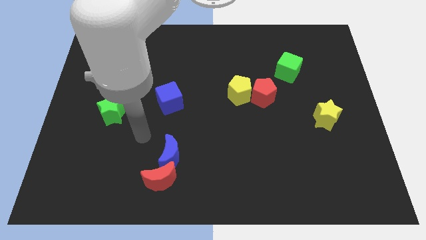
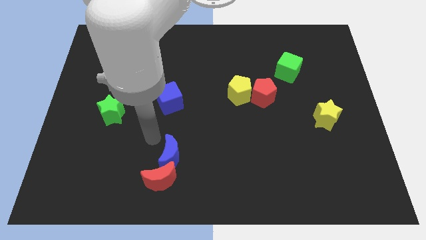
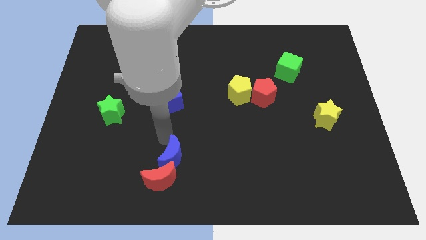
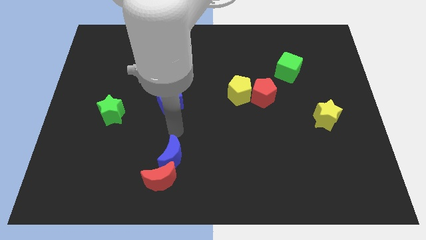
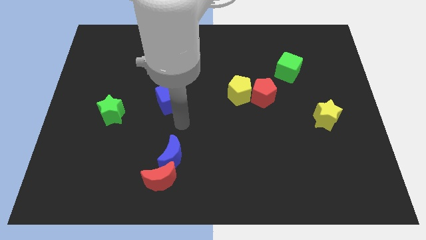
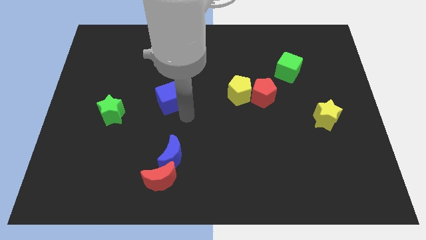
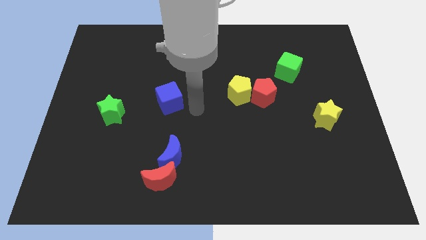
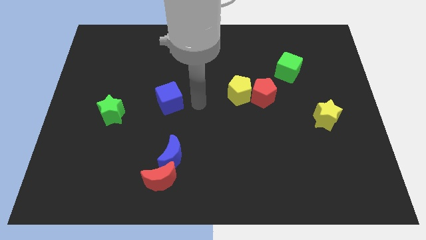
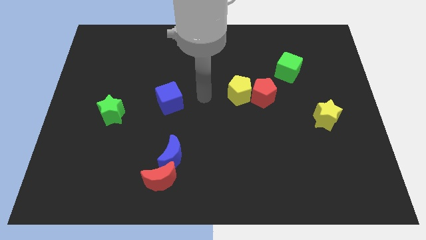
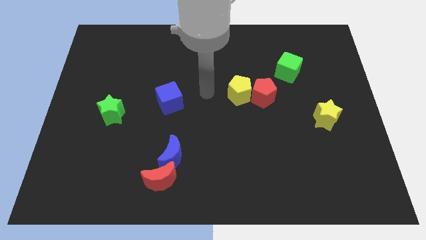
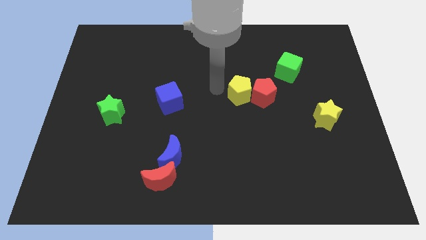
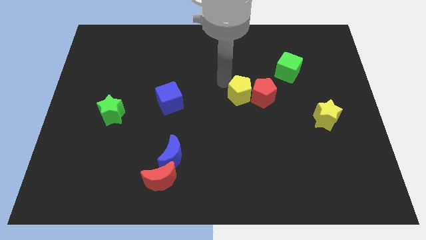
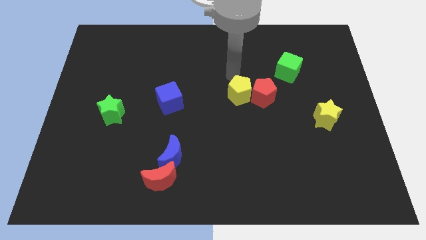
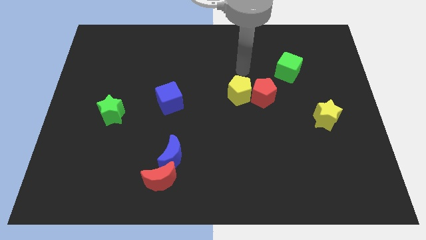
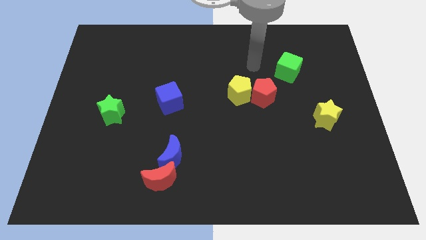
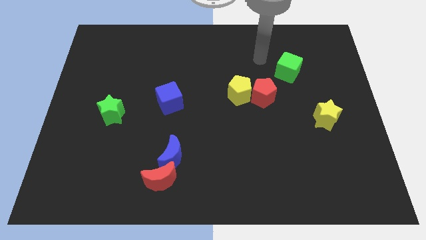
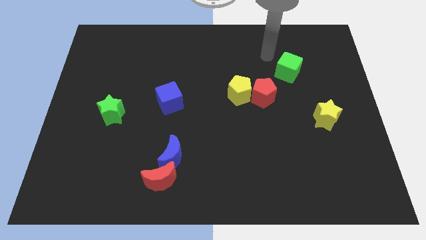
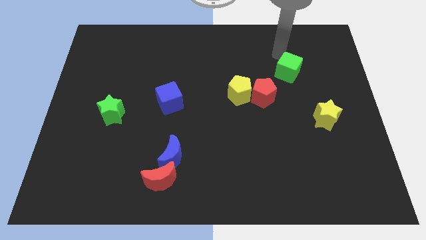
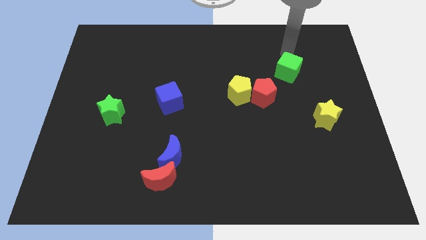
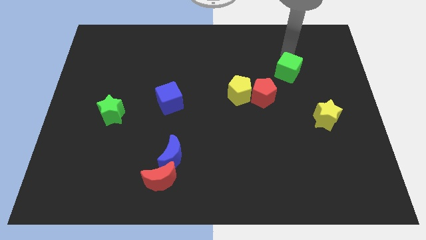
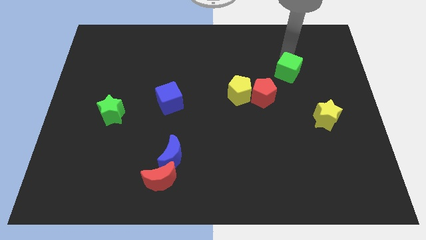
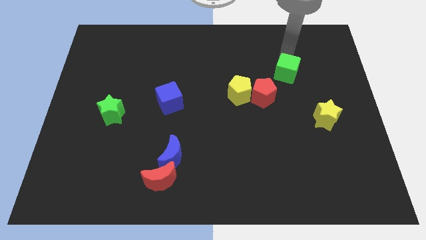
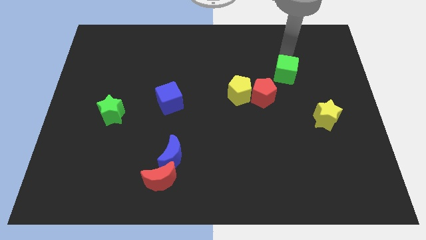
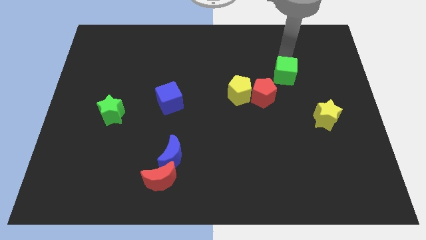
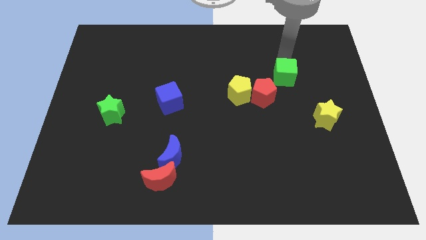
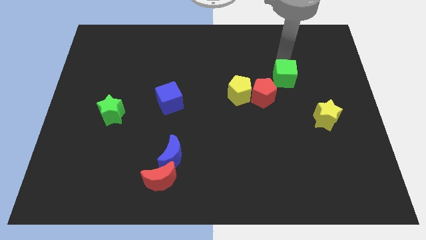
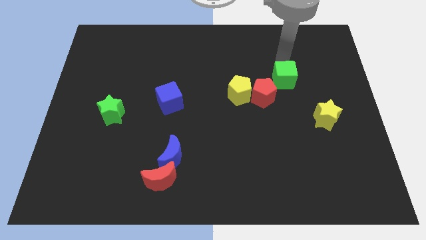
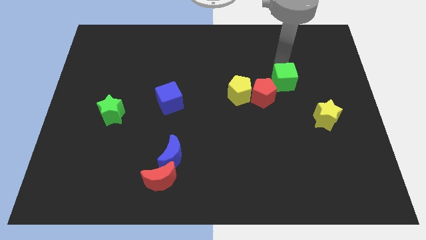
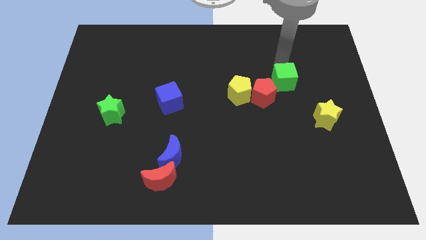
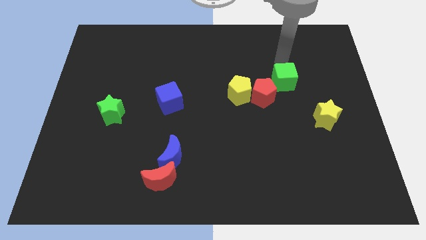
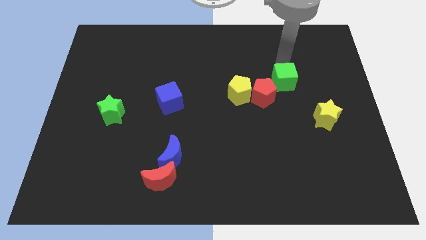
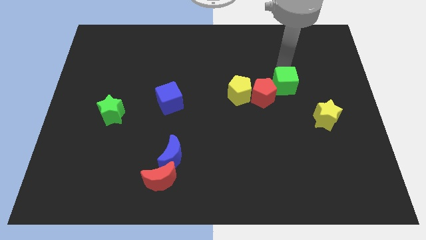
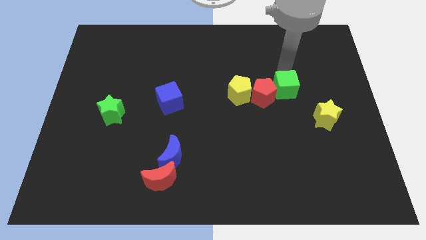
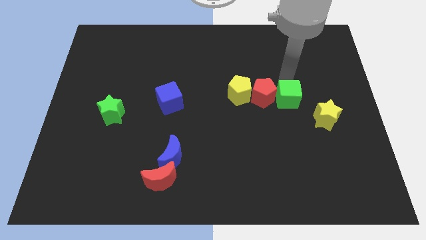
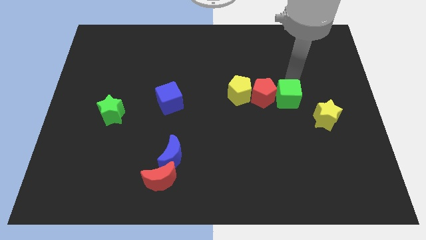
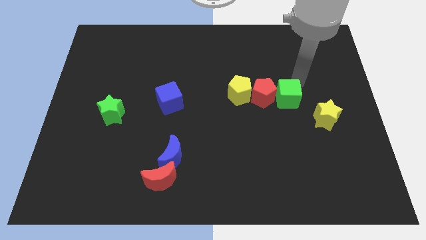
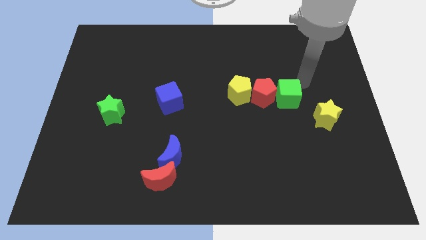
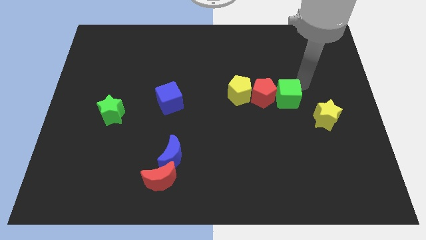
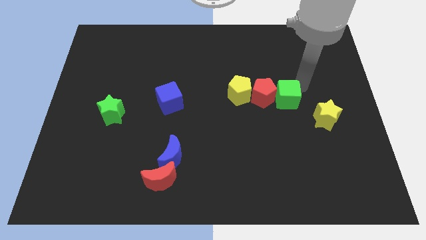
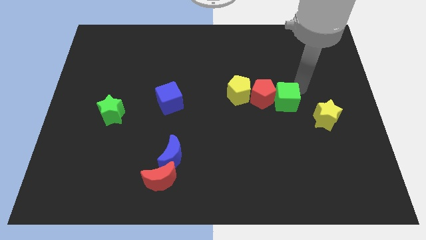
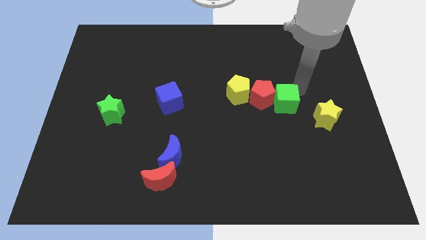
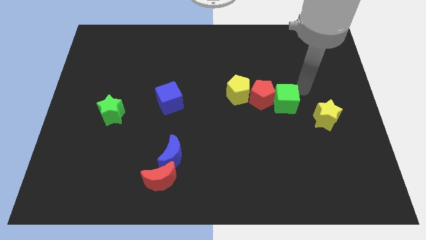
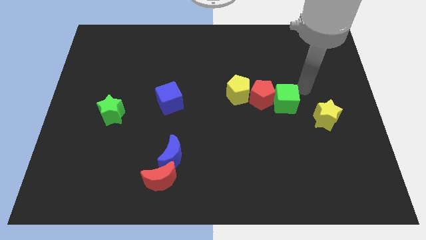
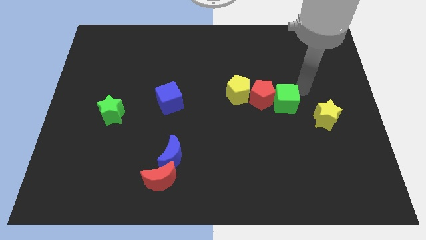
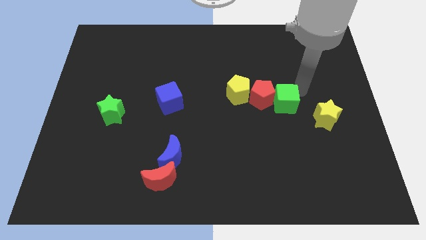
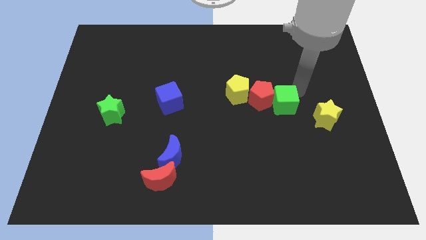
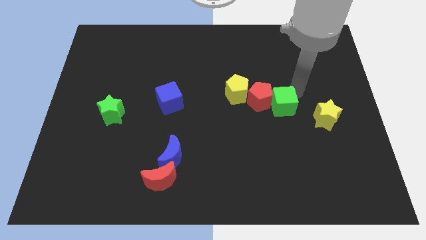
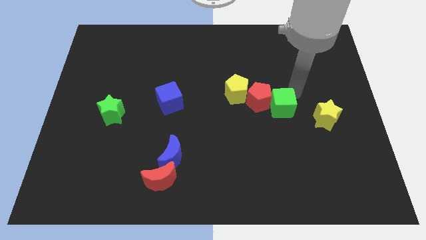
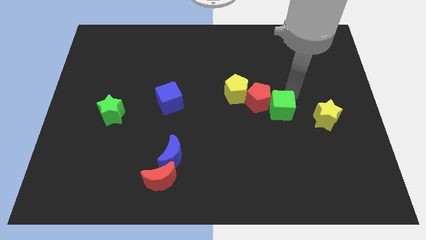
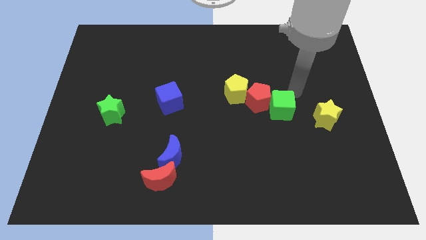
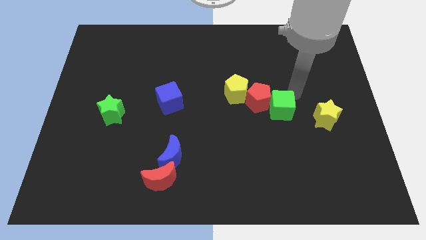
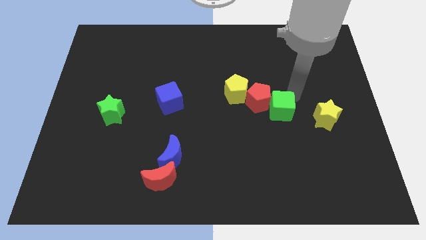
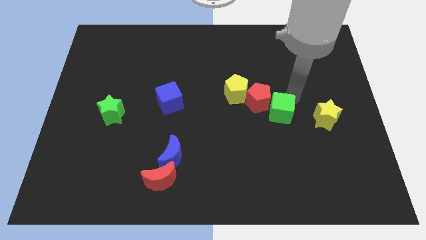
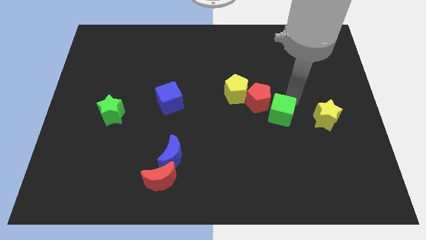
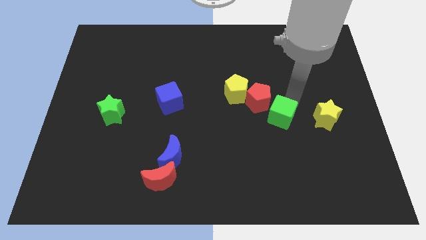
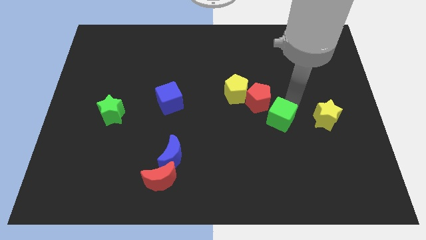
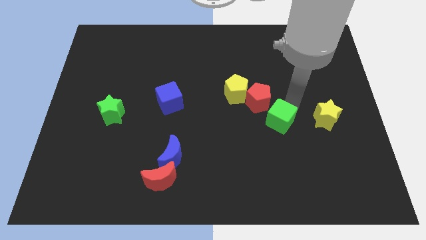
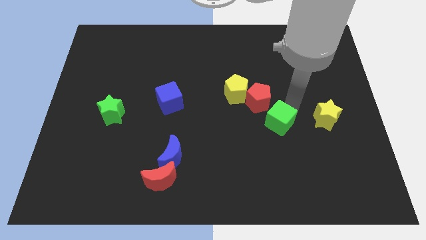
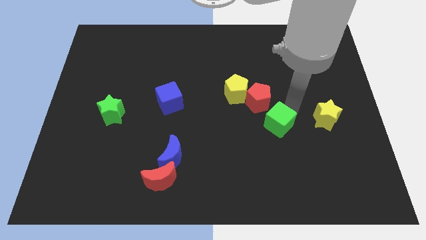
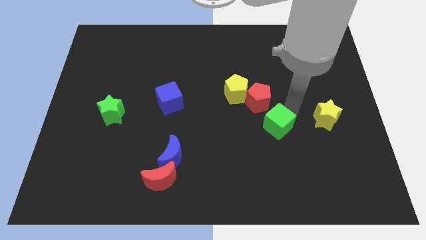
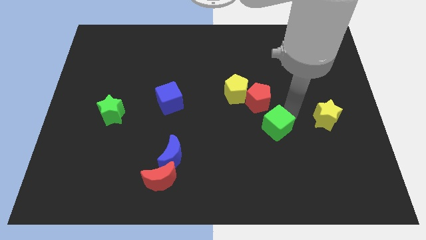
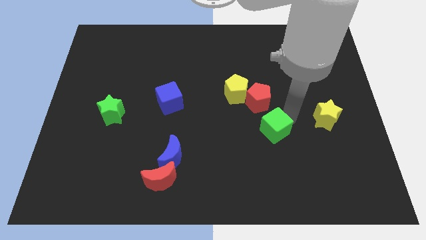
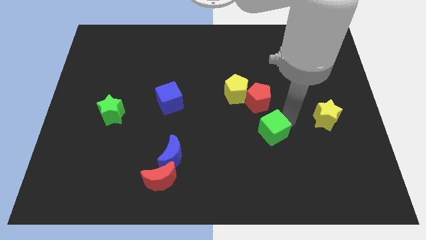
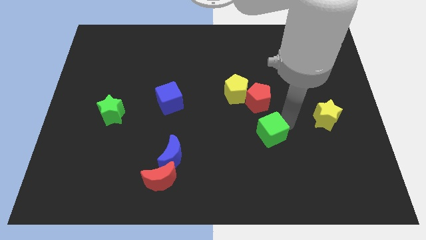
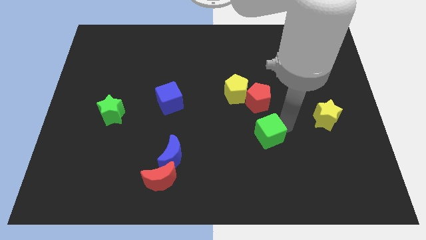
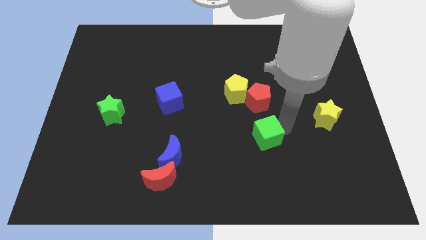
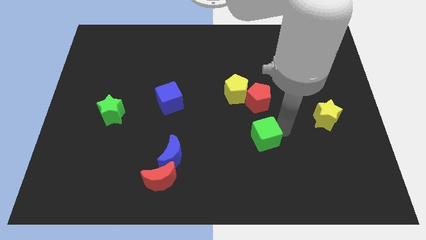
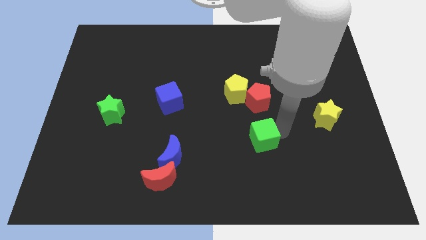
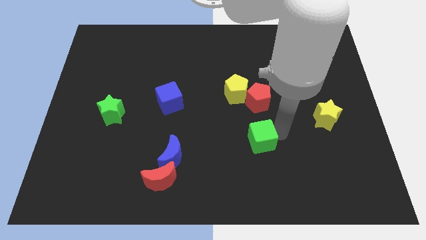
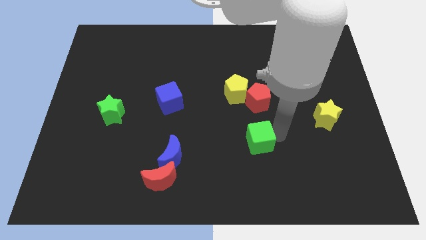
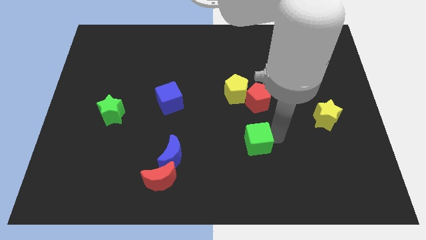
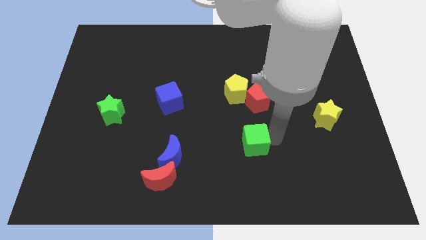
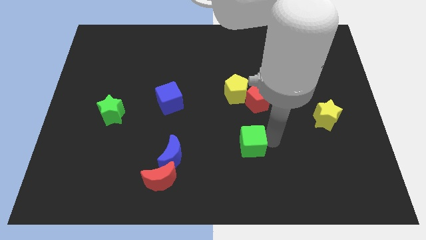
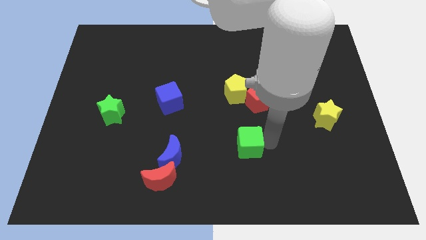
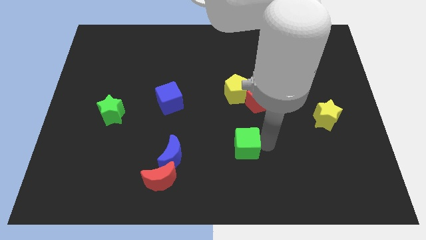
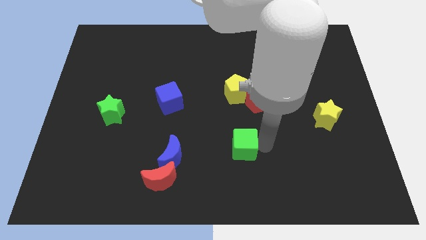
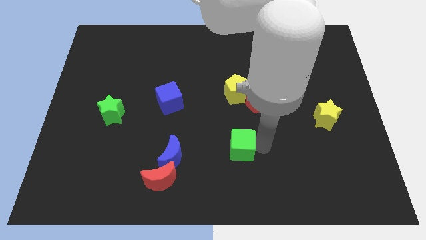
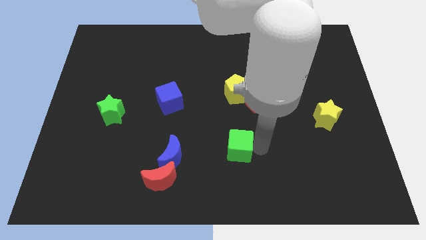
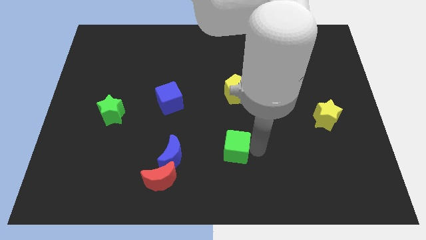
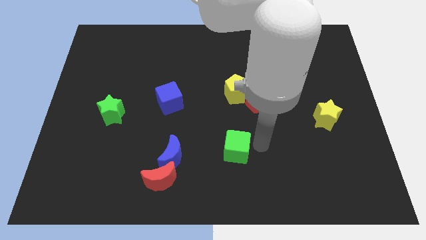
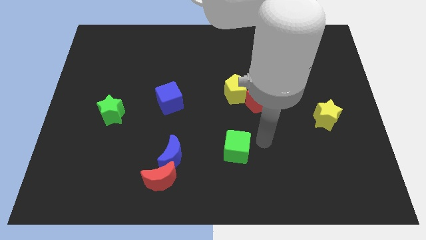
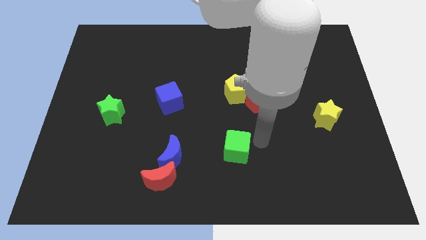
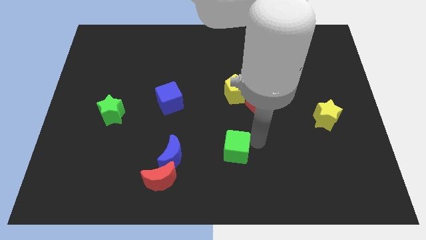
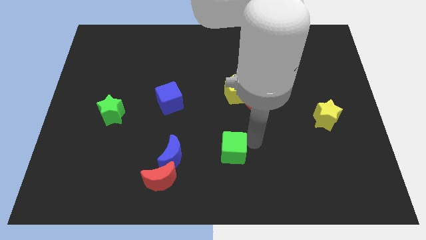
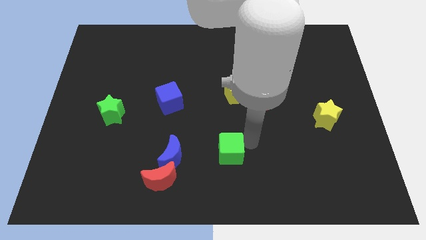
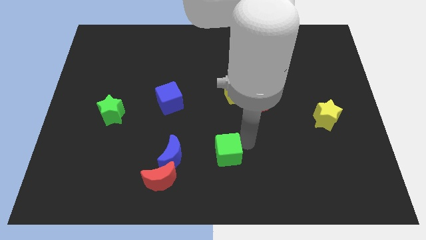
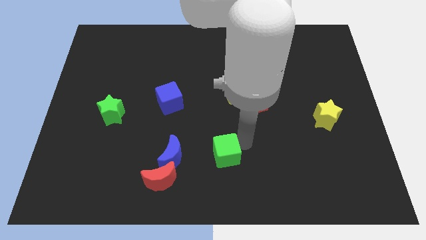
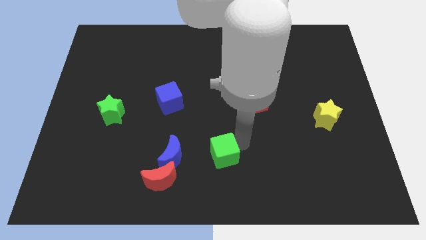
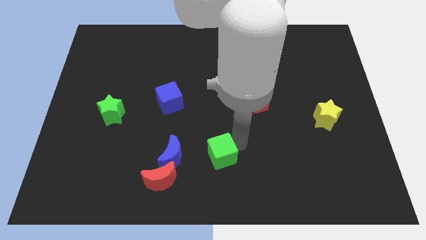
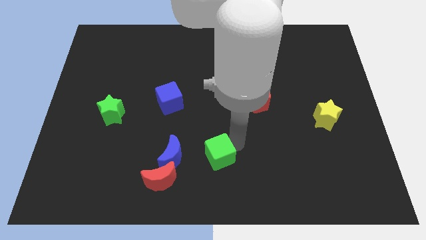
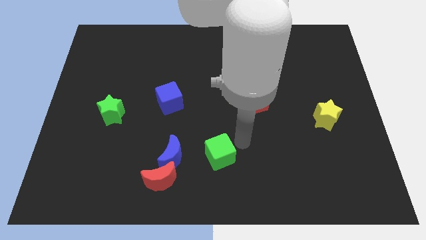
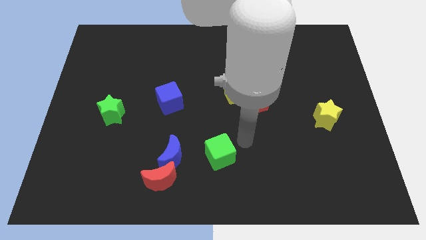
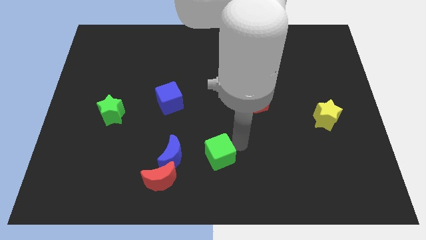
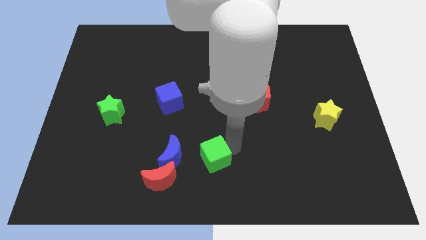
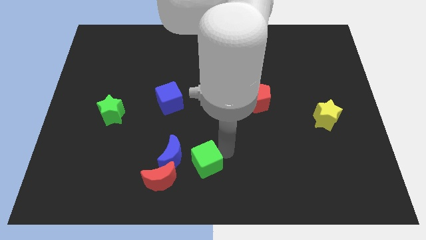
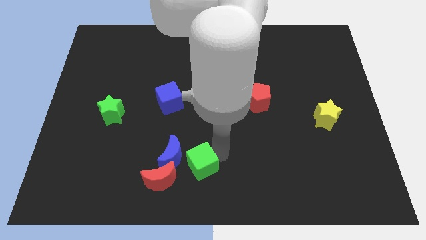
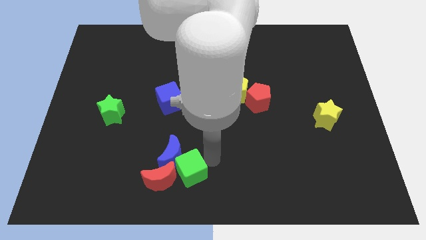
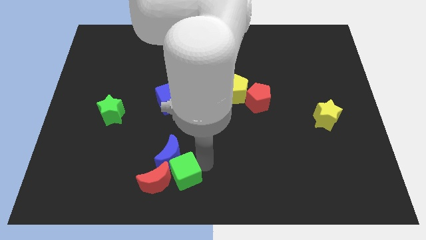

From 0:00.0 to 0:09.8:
put the green cube close to the red moon
